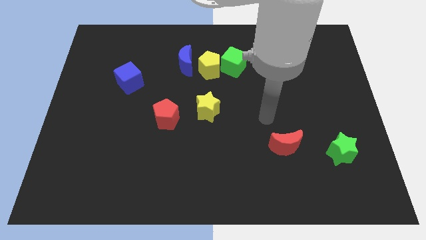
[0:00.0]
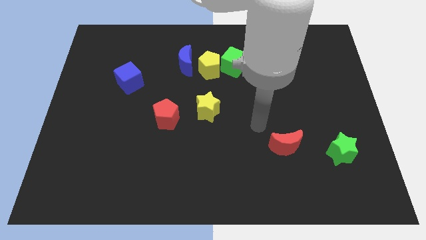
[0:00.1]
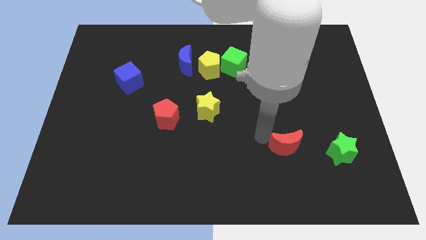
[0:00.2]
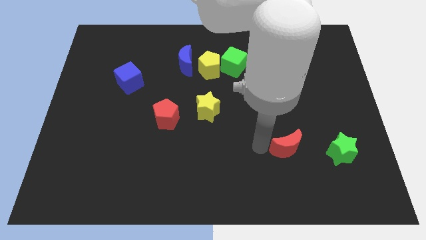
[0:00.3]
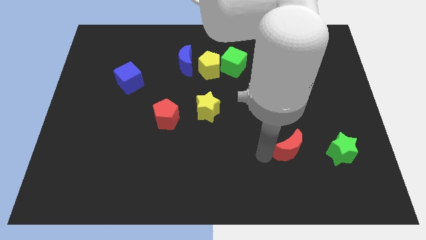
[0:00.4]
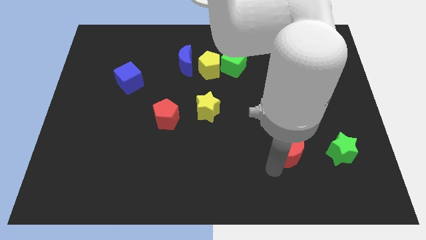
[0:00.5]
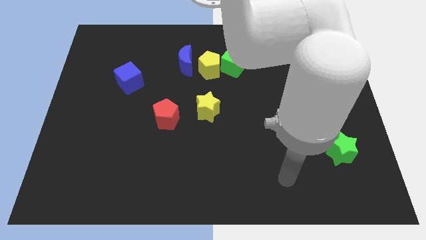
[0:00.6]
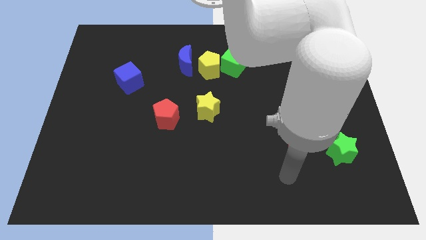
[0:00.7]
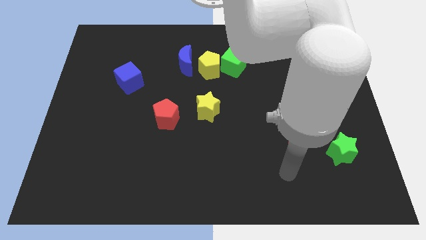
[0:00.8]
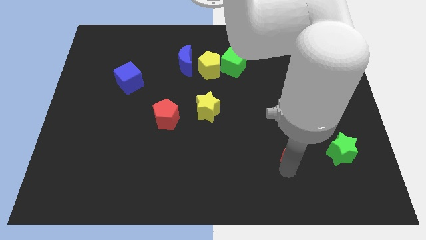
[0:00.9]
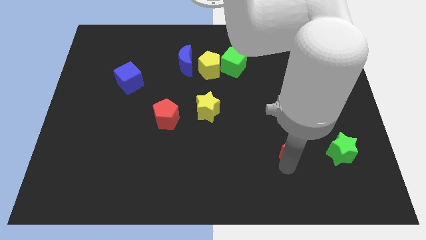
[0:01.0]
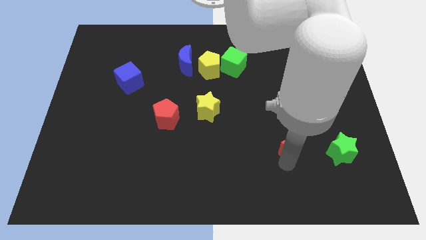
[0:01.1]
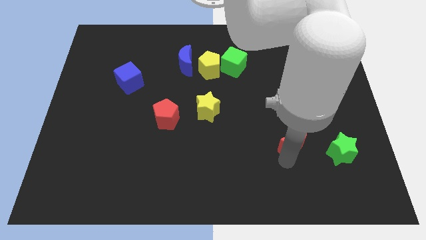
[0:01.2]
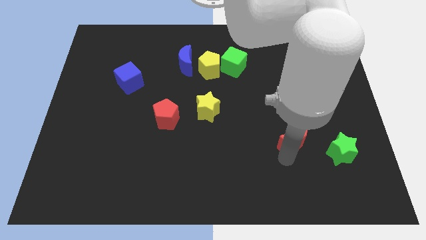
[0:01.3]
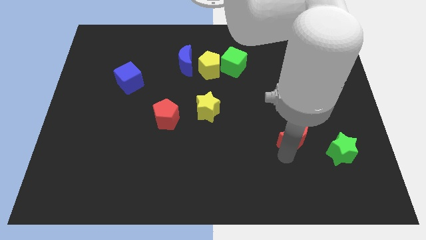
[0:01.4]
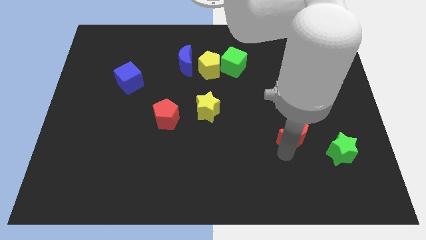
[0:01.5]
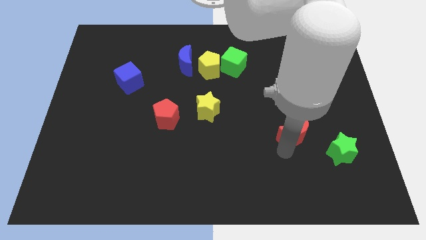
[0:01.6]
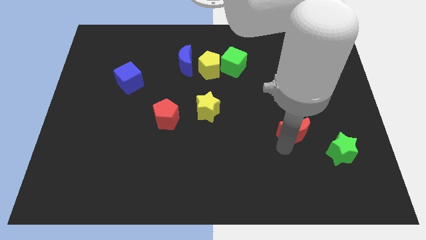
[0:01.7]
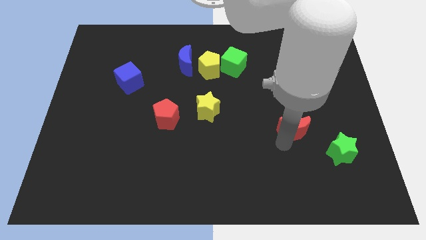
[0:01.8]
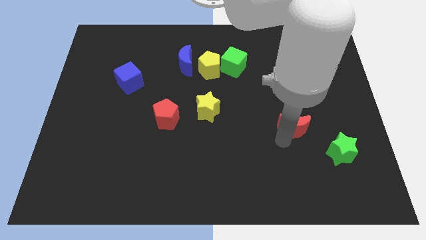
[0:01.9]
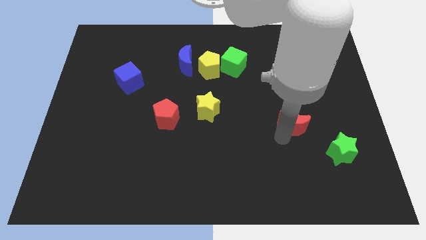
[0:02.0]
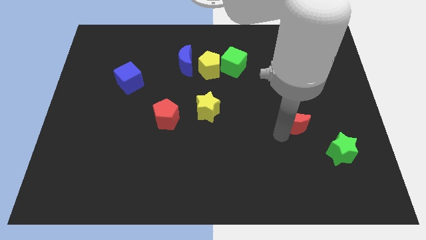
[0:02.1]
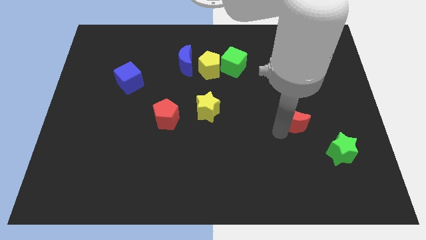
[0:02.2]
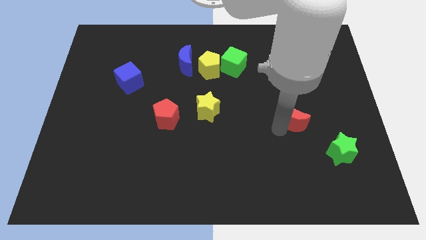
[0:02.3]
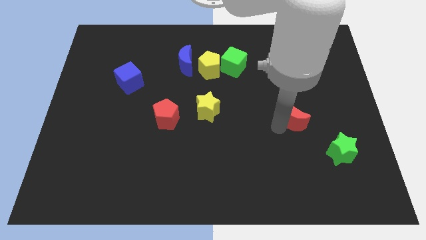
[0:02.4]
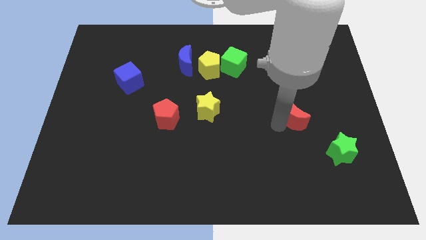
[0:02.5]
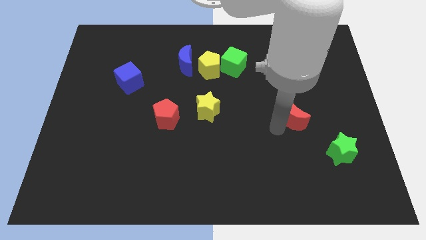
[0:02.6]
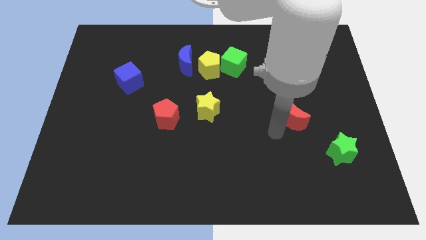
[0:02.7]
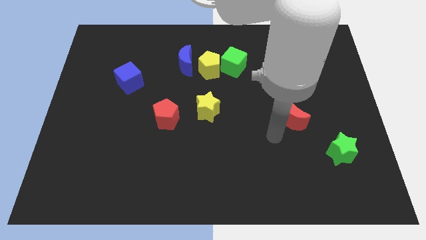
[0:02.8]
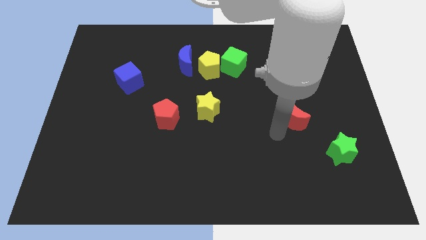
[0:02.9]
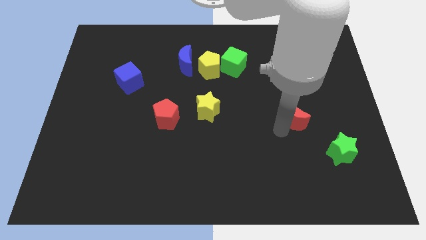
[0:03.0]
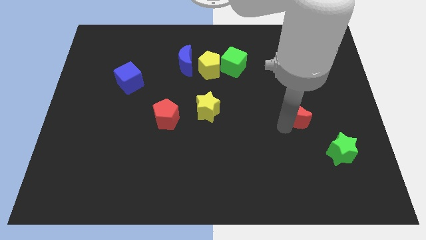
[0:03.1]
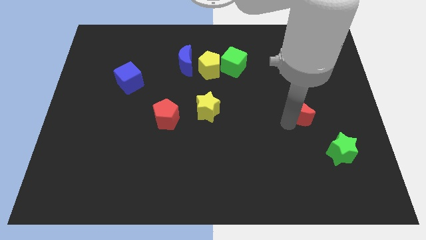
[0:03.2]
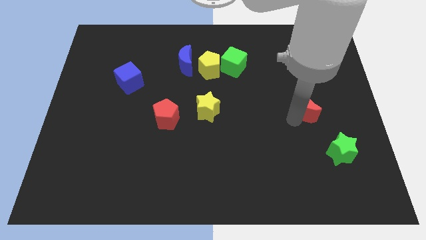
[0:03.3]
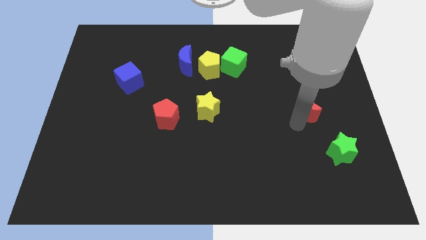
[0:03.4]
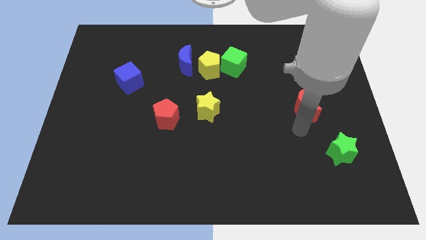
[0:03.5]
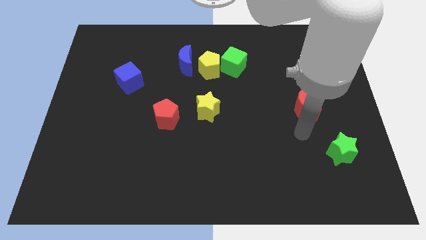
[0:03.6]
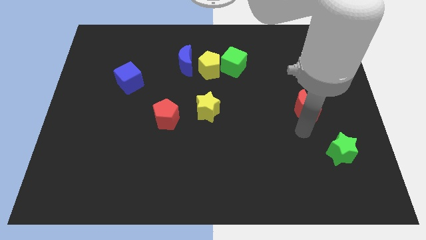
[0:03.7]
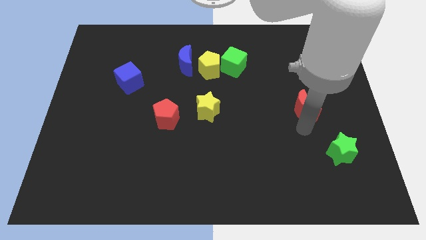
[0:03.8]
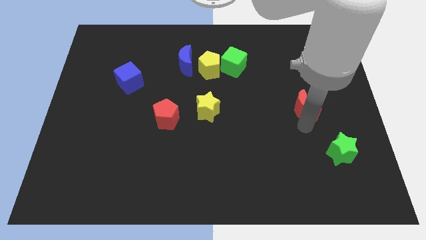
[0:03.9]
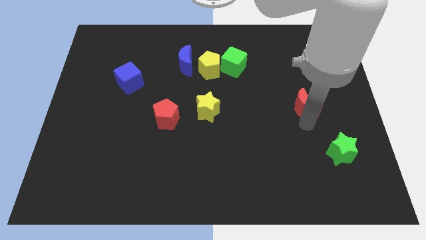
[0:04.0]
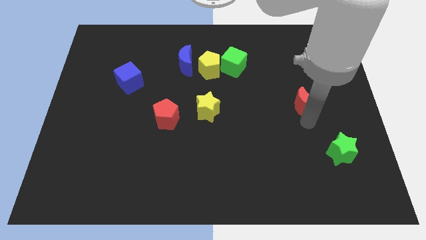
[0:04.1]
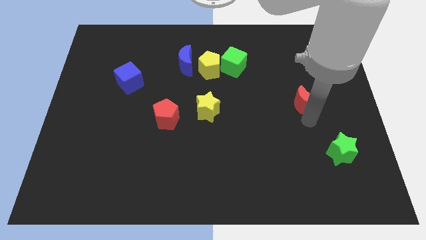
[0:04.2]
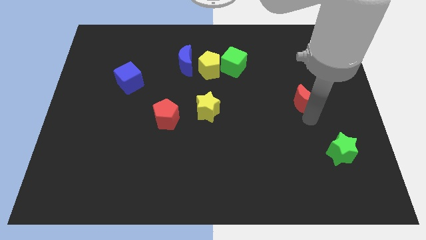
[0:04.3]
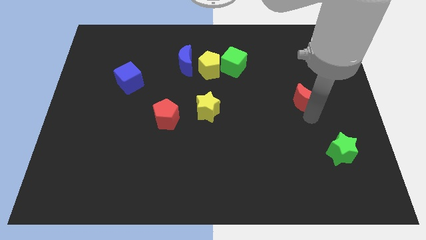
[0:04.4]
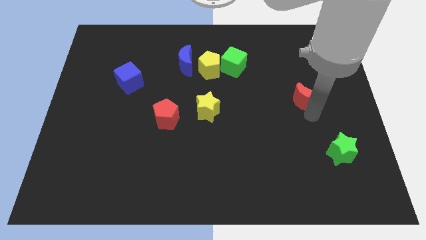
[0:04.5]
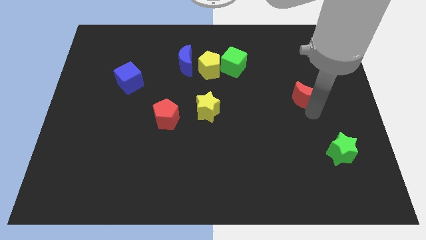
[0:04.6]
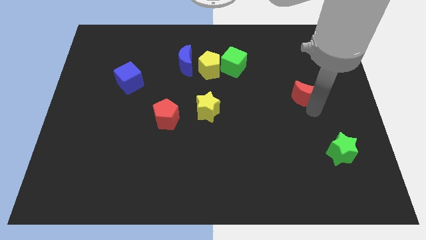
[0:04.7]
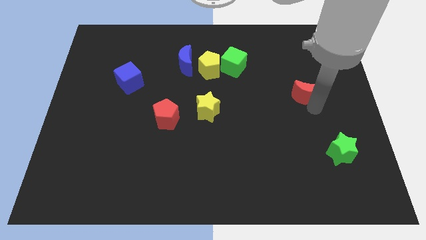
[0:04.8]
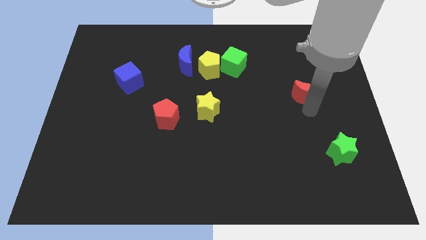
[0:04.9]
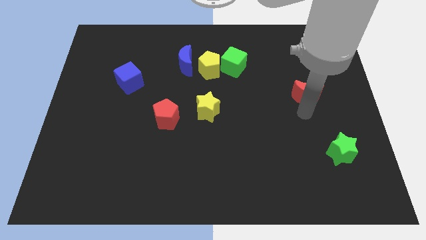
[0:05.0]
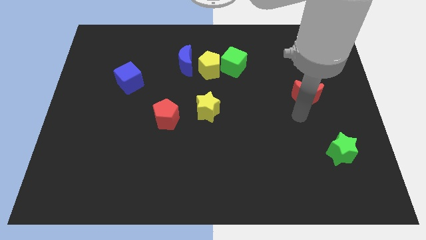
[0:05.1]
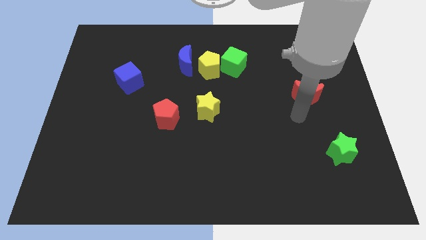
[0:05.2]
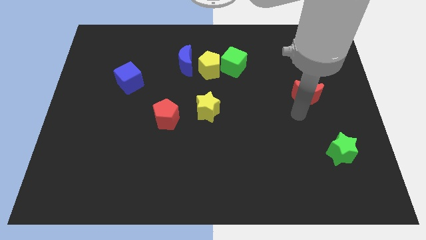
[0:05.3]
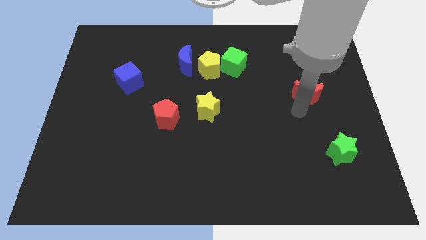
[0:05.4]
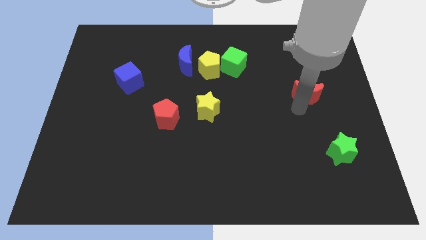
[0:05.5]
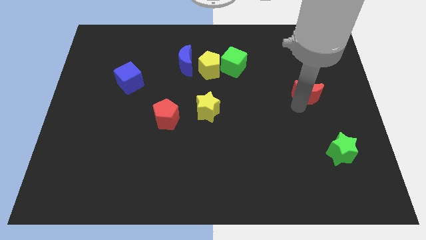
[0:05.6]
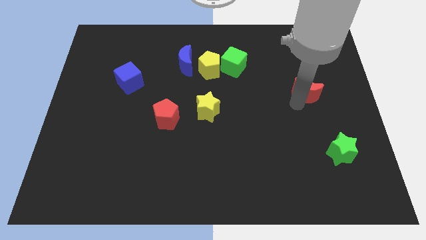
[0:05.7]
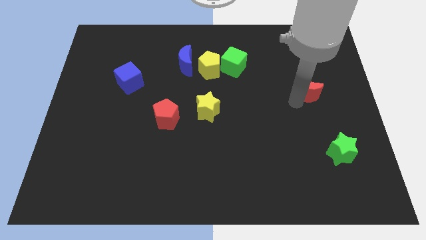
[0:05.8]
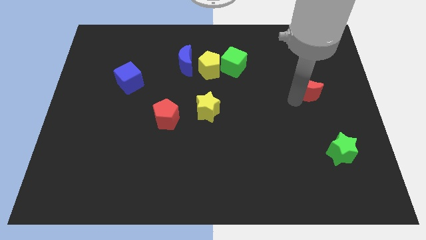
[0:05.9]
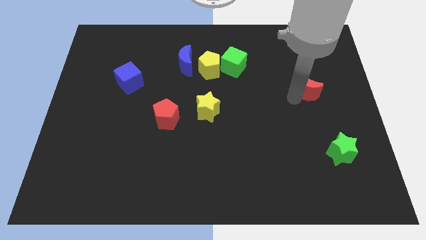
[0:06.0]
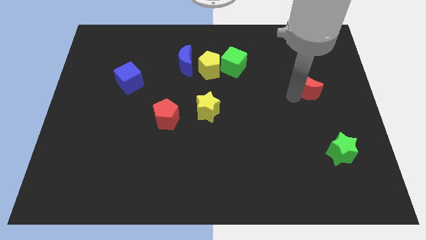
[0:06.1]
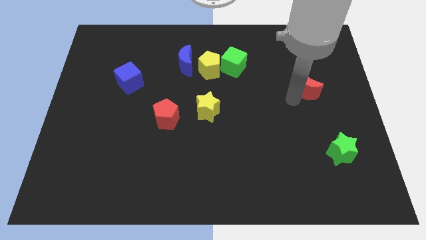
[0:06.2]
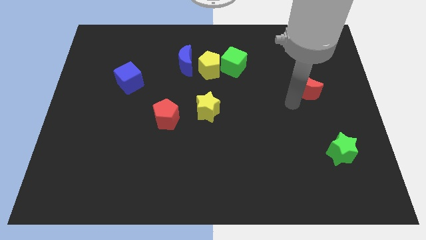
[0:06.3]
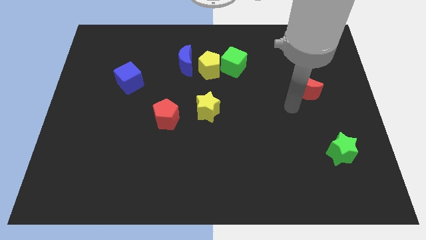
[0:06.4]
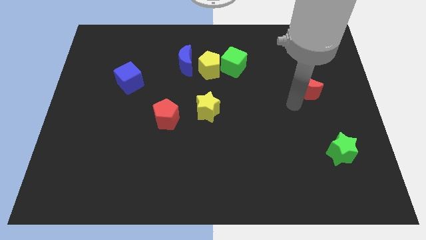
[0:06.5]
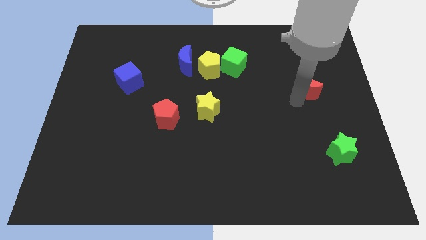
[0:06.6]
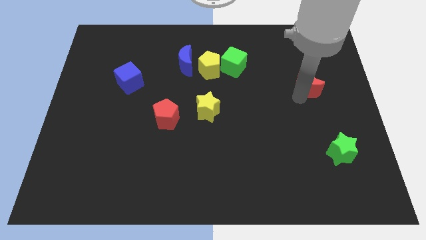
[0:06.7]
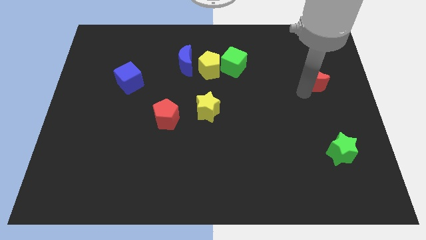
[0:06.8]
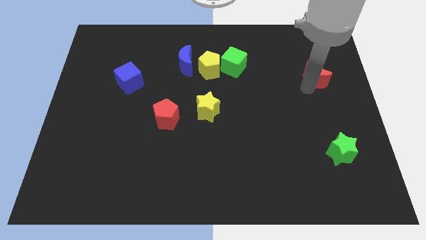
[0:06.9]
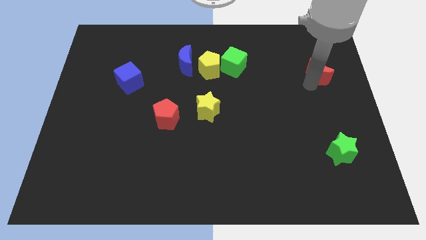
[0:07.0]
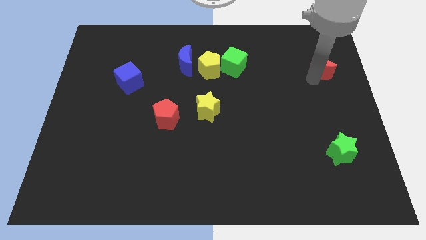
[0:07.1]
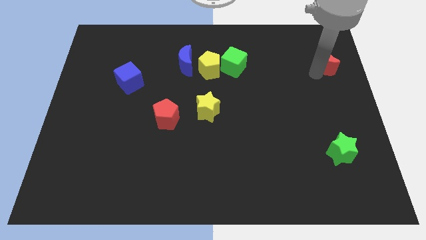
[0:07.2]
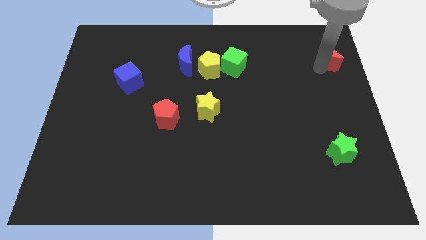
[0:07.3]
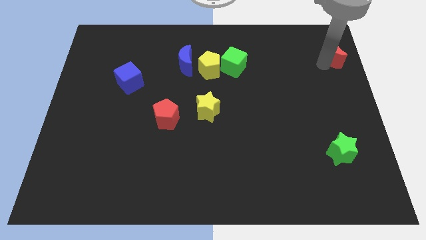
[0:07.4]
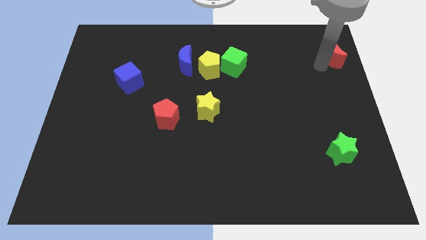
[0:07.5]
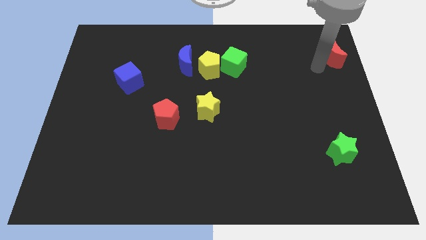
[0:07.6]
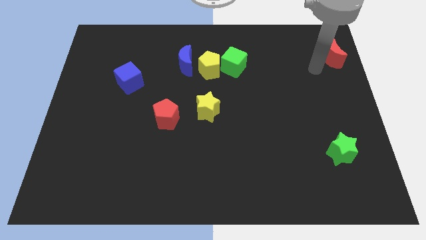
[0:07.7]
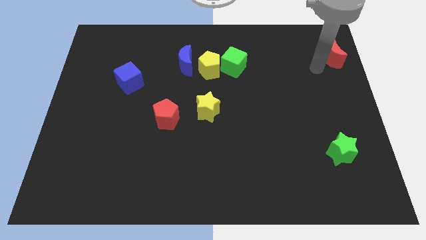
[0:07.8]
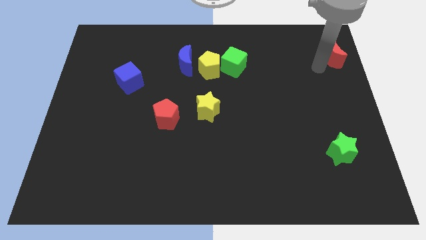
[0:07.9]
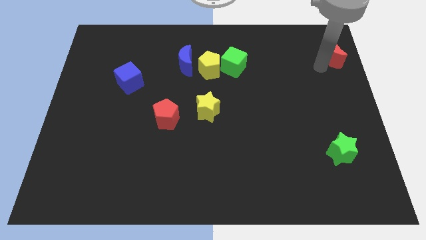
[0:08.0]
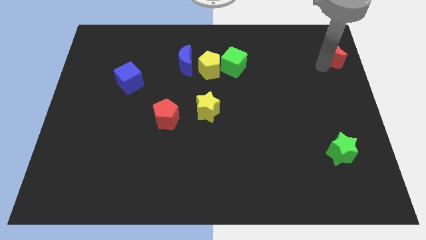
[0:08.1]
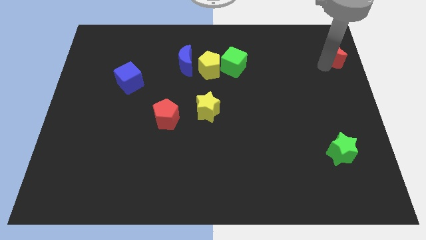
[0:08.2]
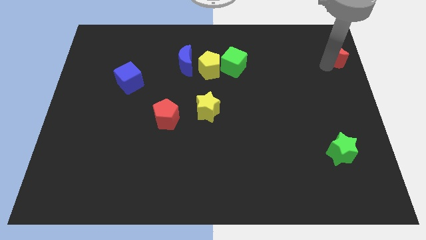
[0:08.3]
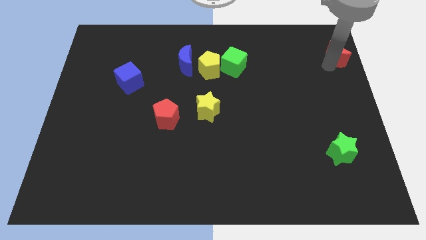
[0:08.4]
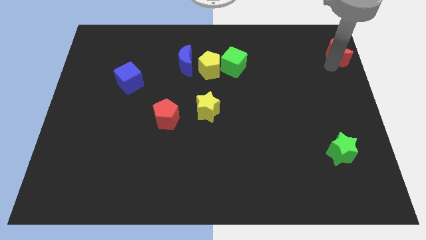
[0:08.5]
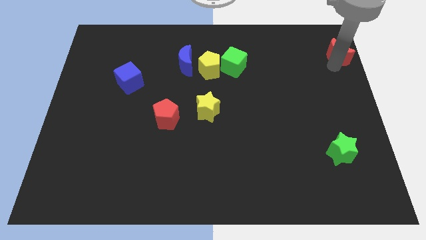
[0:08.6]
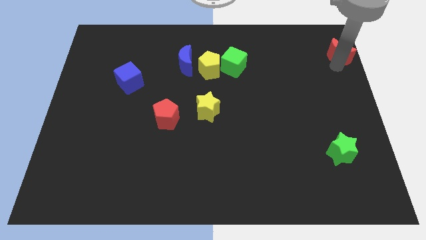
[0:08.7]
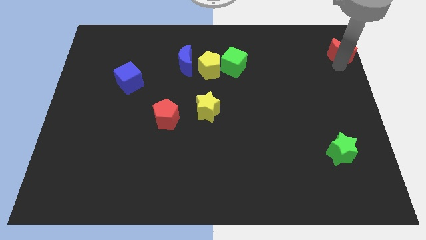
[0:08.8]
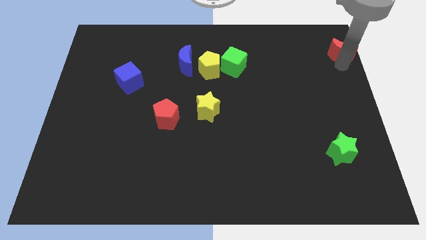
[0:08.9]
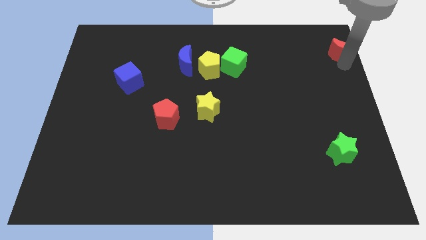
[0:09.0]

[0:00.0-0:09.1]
slide the red moon to the top right of the board
